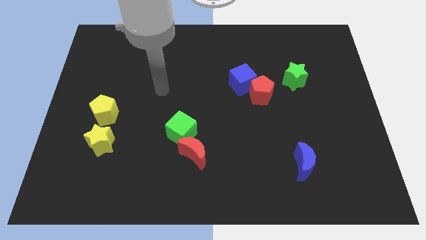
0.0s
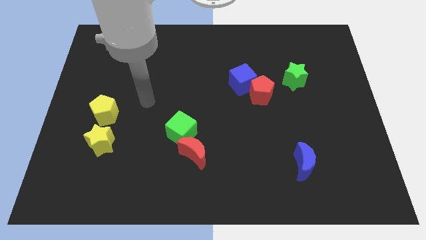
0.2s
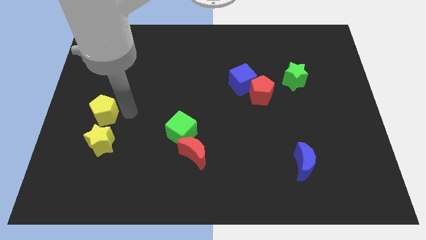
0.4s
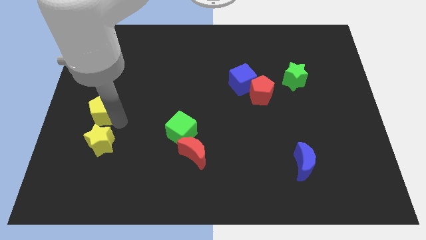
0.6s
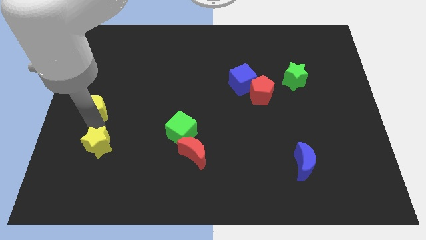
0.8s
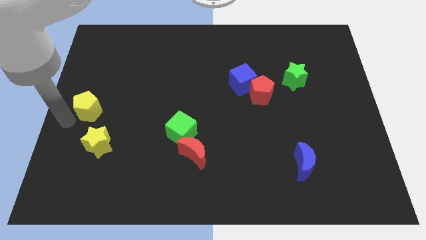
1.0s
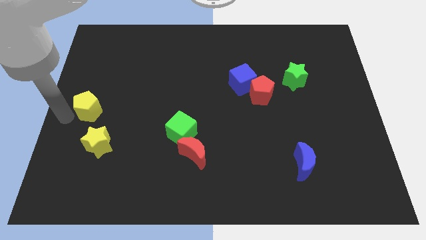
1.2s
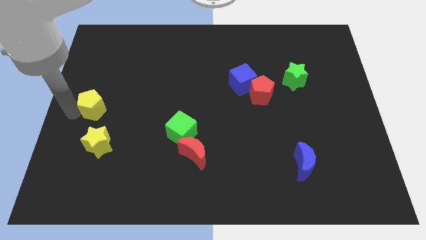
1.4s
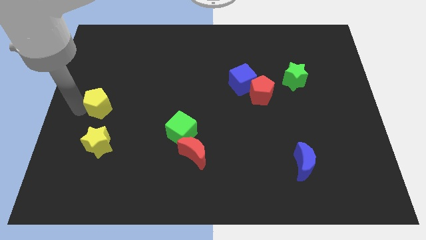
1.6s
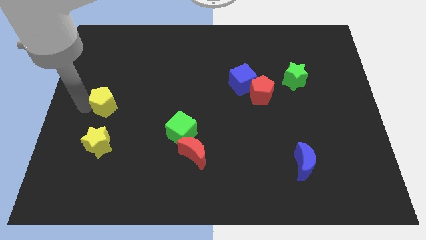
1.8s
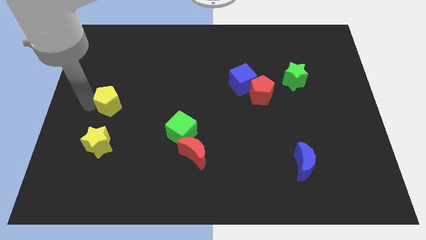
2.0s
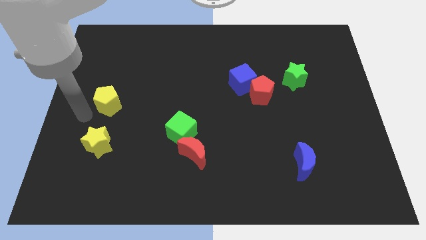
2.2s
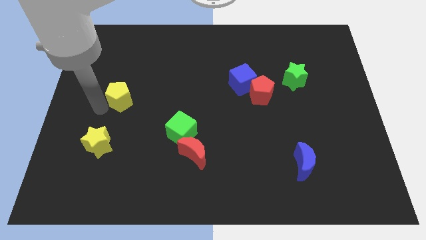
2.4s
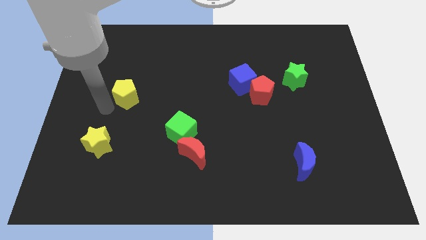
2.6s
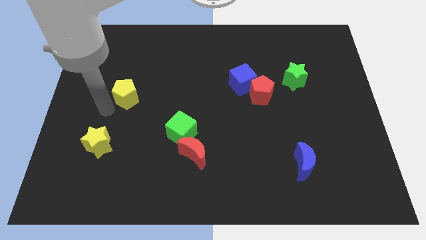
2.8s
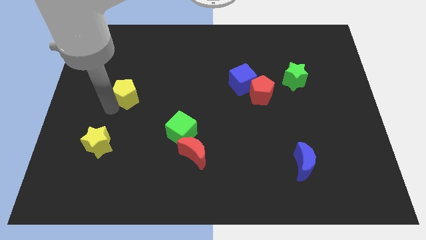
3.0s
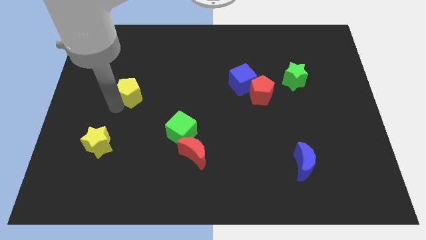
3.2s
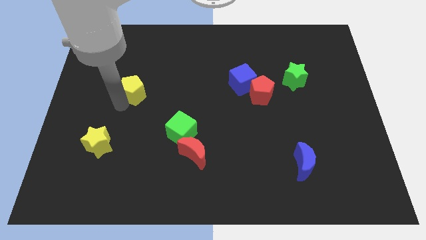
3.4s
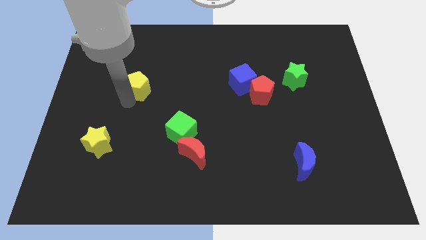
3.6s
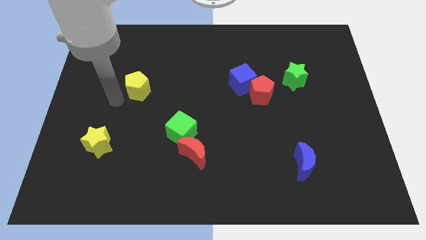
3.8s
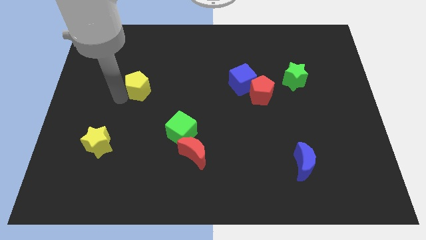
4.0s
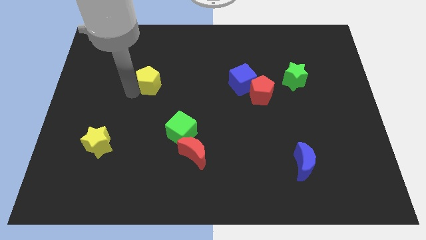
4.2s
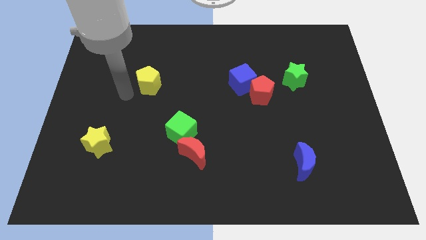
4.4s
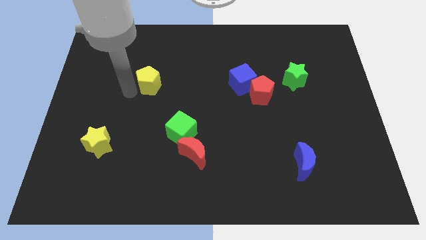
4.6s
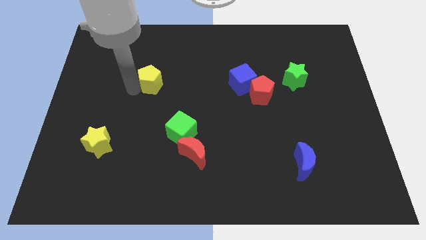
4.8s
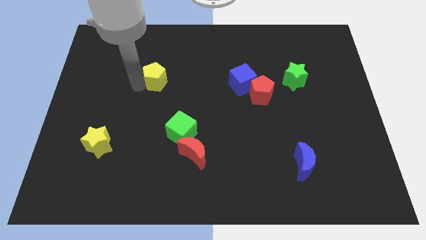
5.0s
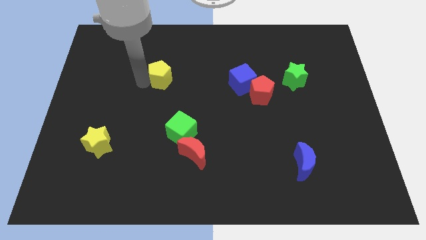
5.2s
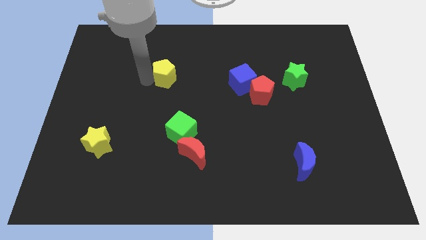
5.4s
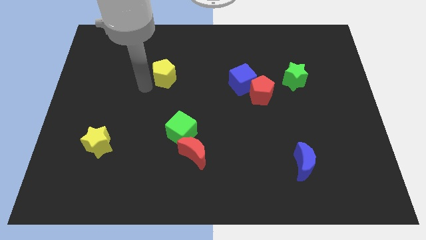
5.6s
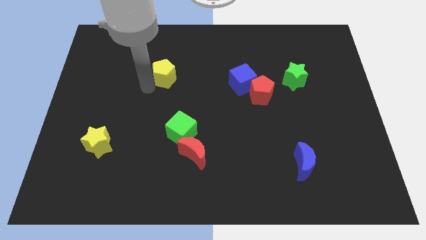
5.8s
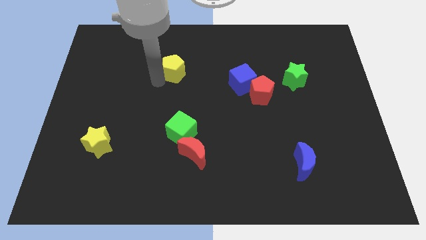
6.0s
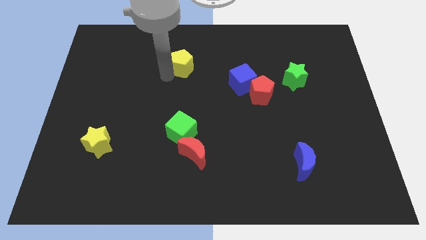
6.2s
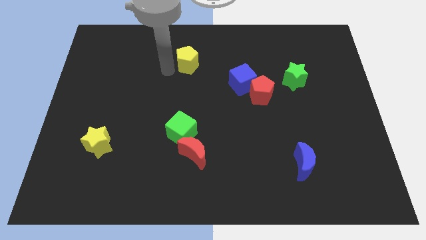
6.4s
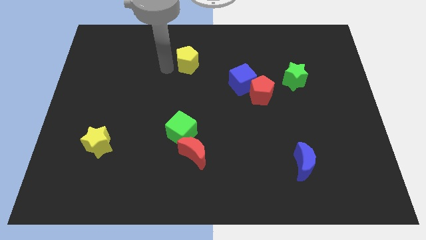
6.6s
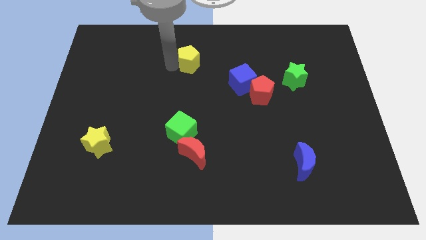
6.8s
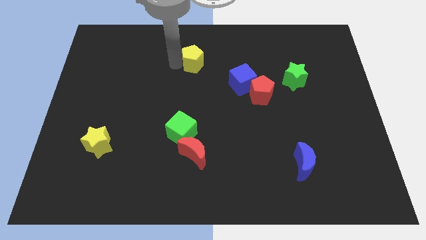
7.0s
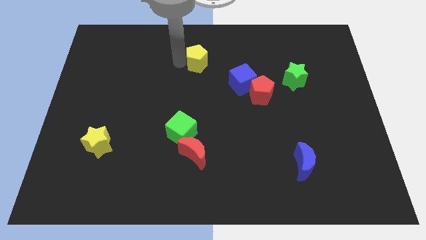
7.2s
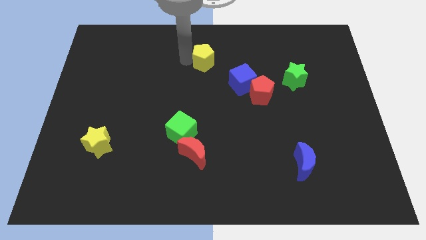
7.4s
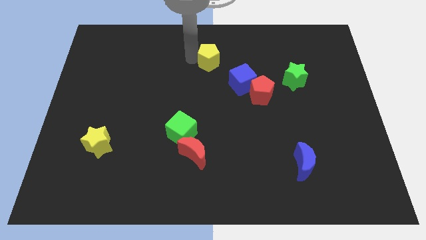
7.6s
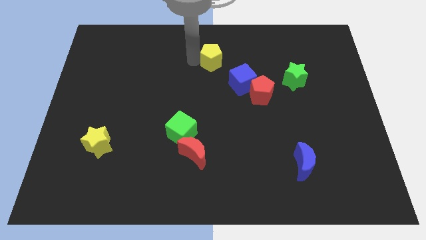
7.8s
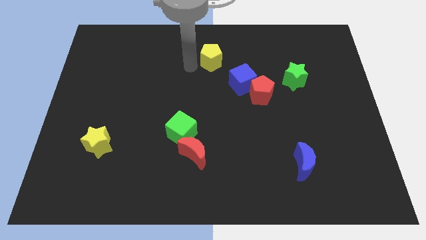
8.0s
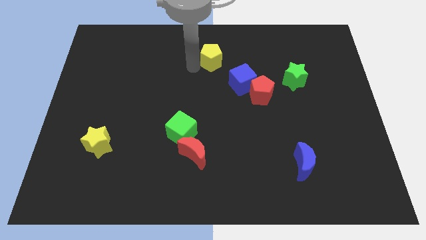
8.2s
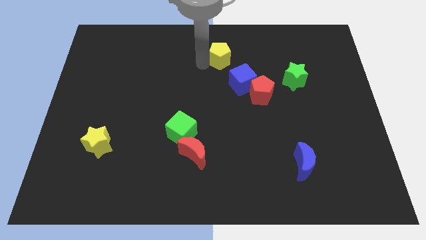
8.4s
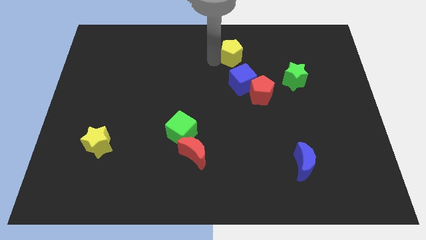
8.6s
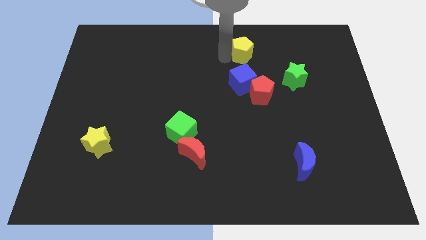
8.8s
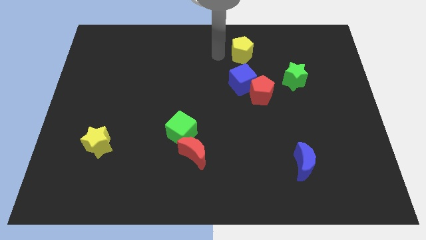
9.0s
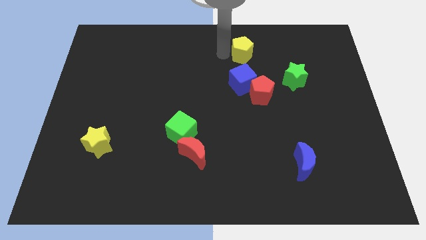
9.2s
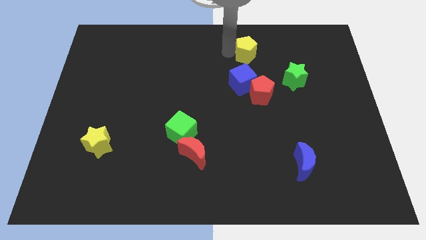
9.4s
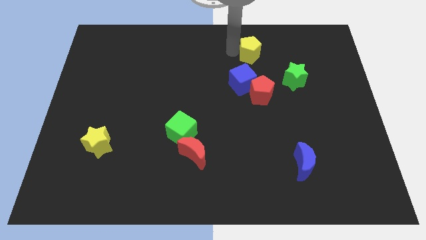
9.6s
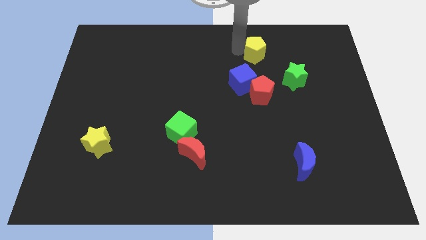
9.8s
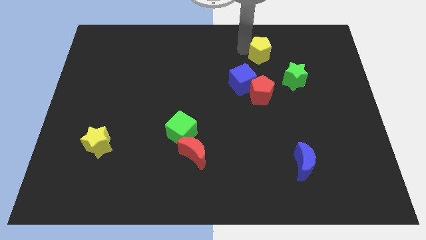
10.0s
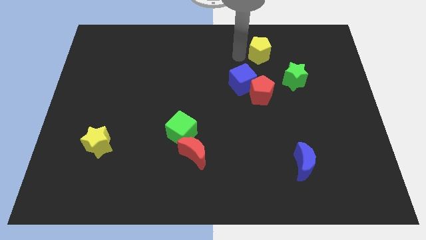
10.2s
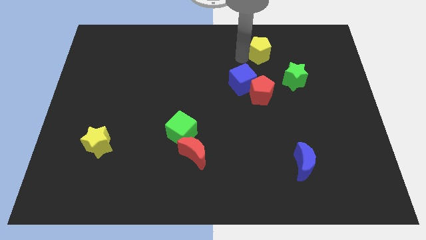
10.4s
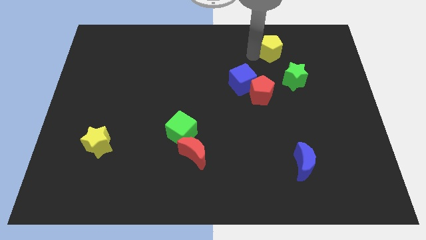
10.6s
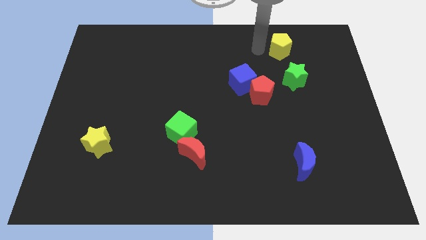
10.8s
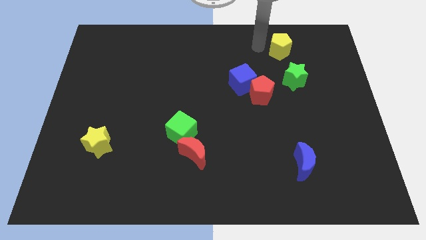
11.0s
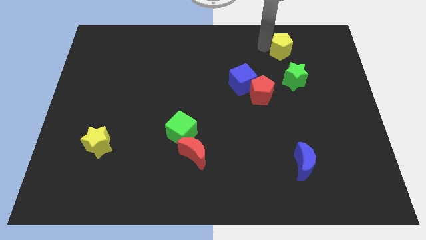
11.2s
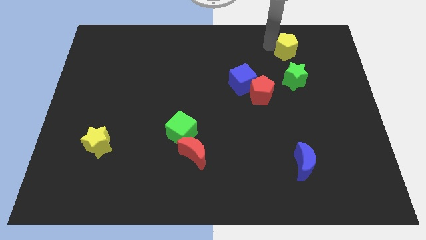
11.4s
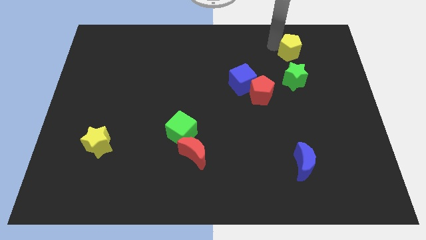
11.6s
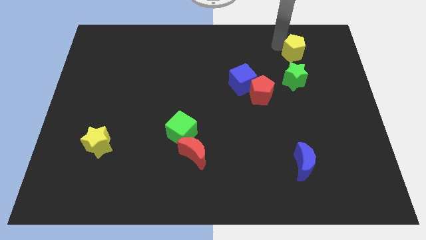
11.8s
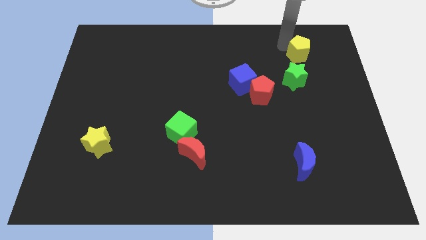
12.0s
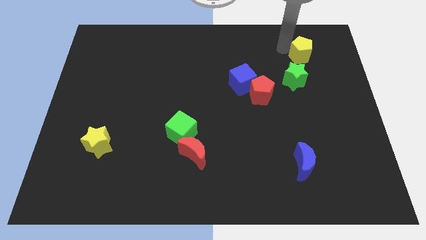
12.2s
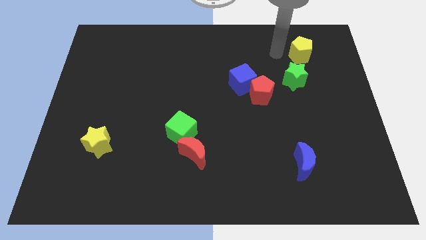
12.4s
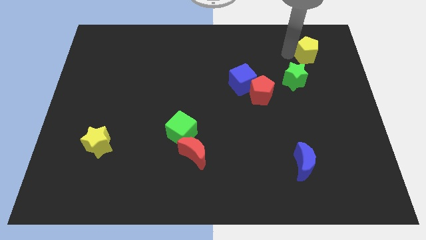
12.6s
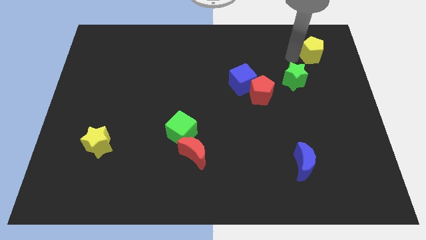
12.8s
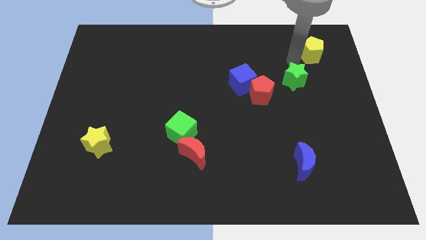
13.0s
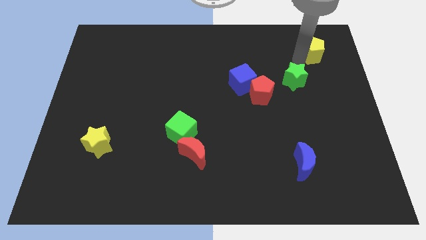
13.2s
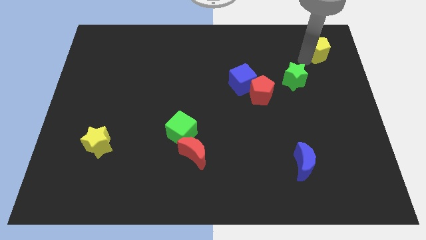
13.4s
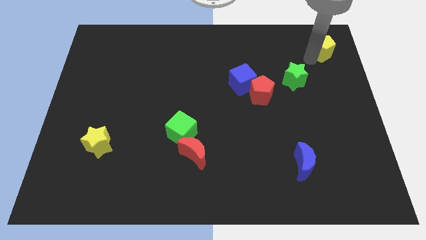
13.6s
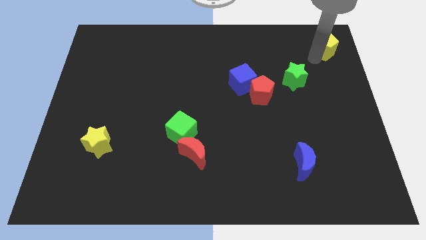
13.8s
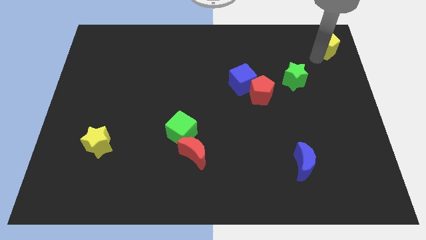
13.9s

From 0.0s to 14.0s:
put the yellow pentagon to the top right of the board

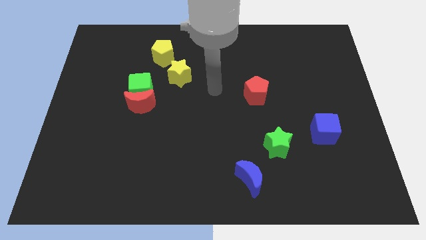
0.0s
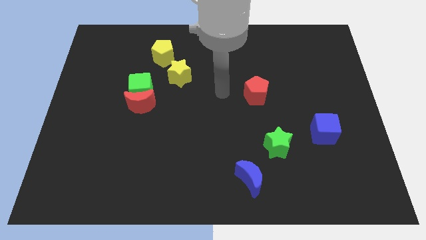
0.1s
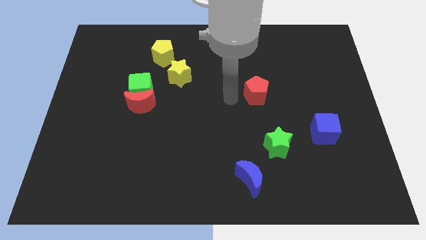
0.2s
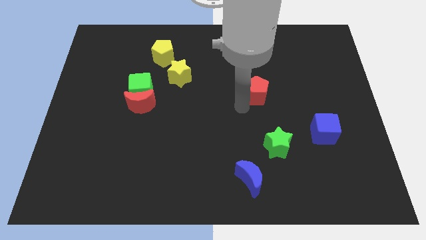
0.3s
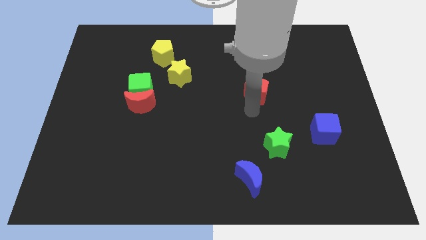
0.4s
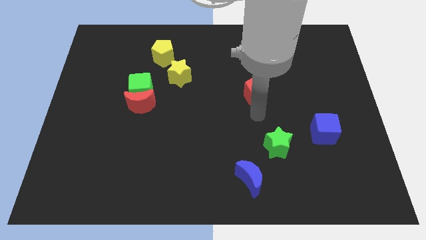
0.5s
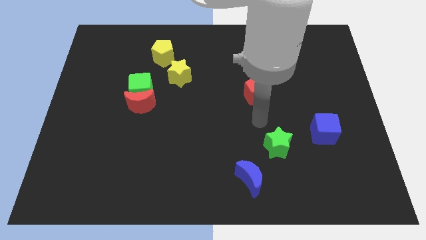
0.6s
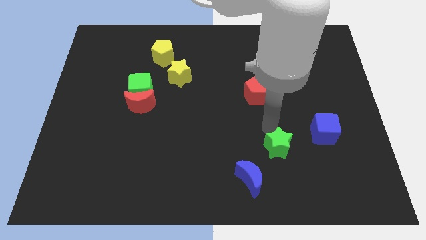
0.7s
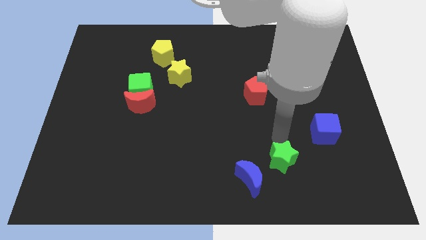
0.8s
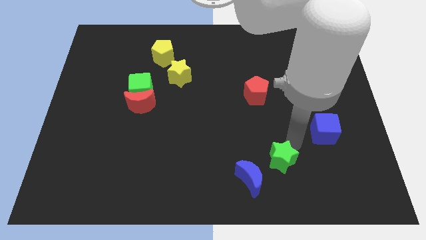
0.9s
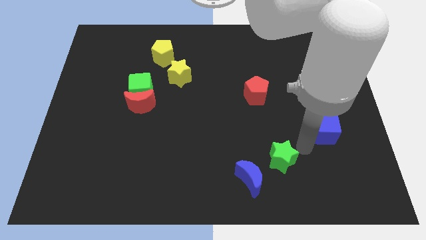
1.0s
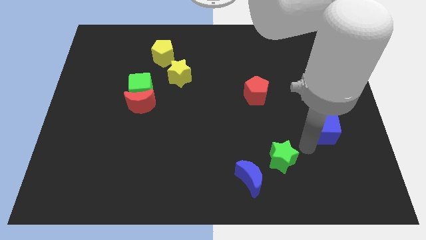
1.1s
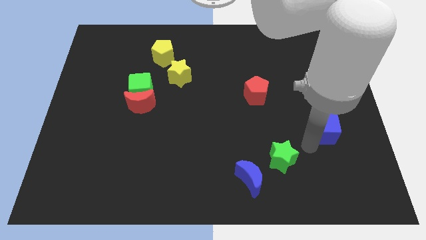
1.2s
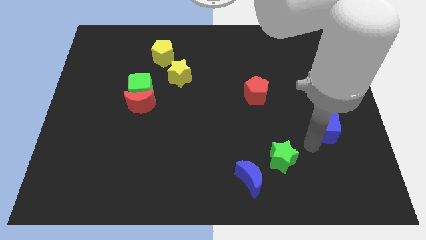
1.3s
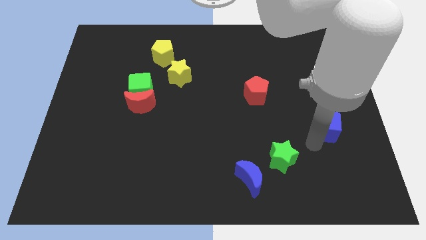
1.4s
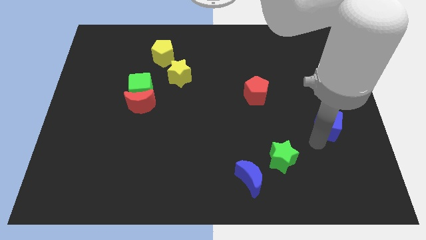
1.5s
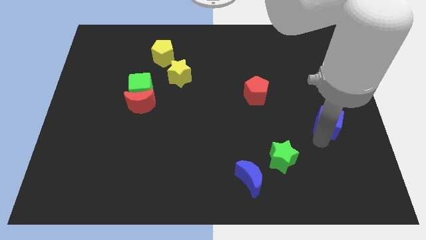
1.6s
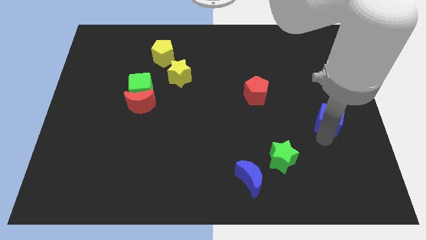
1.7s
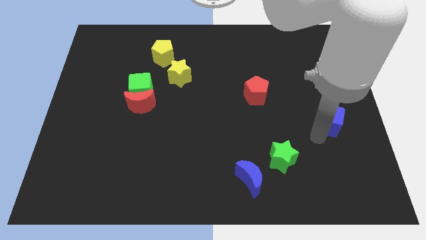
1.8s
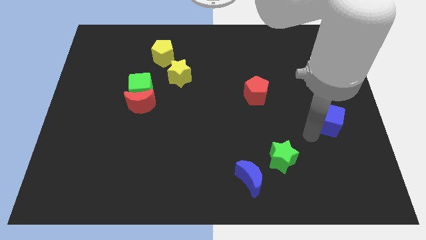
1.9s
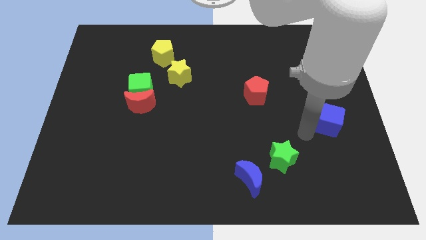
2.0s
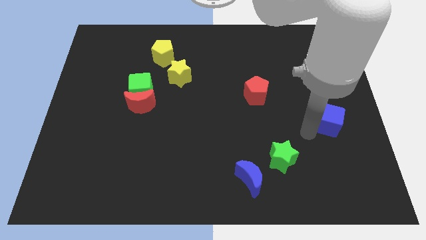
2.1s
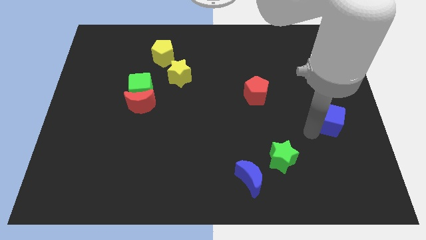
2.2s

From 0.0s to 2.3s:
slide the blue cube to the center right
